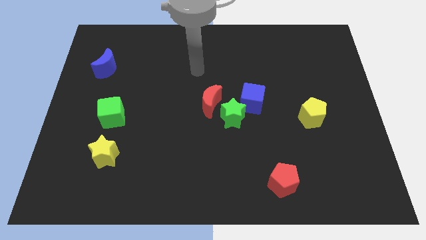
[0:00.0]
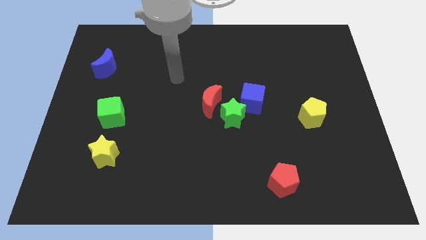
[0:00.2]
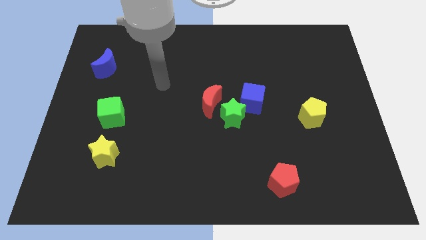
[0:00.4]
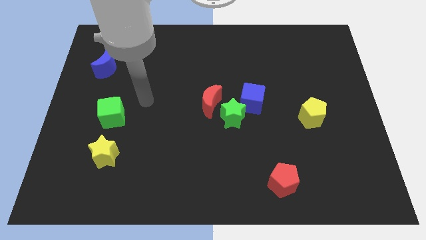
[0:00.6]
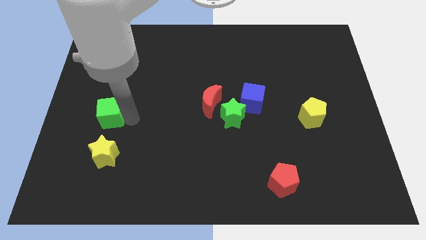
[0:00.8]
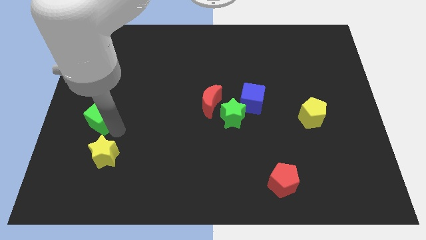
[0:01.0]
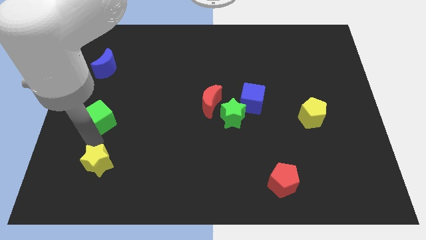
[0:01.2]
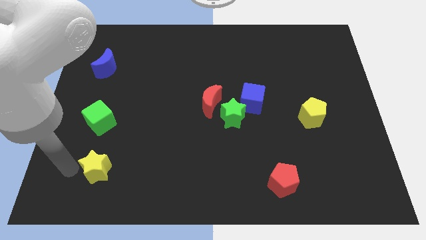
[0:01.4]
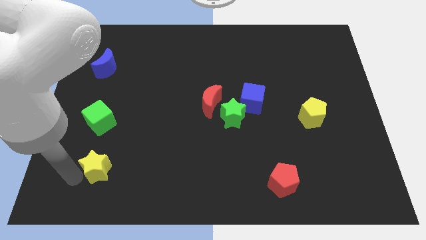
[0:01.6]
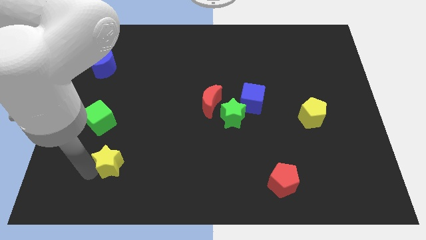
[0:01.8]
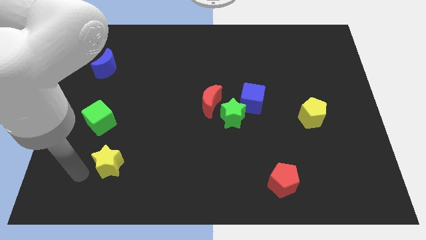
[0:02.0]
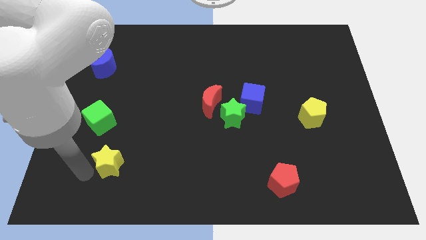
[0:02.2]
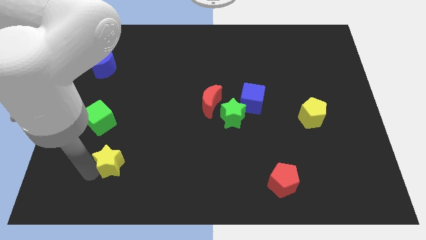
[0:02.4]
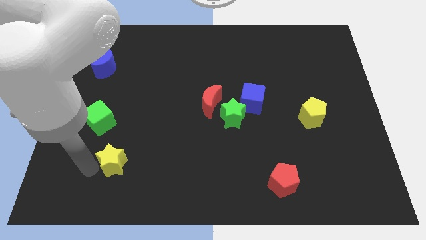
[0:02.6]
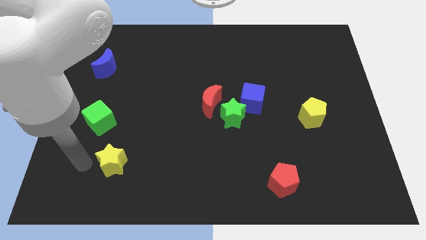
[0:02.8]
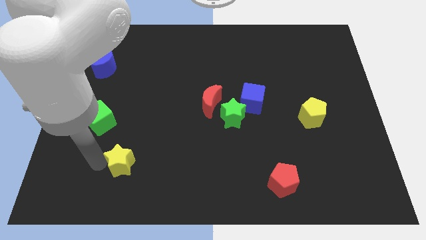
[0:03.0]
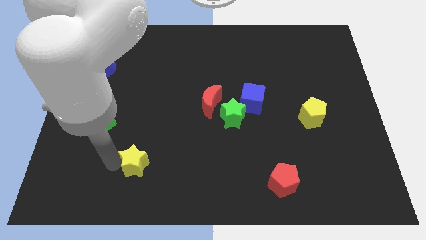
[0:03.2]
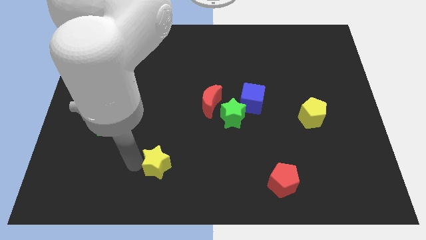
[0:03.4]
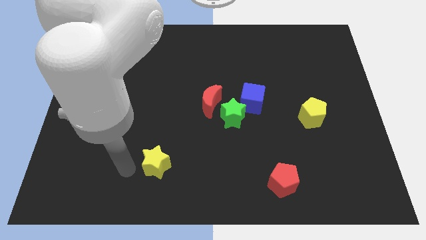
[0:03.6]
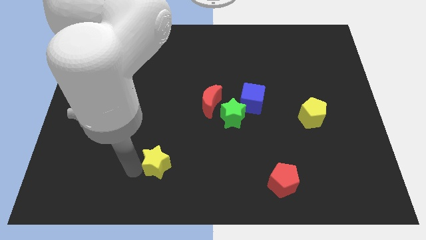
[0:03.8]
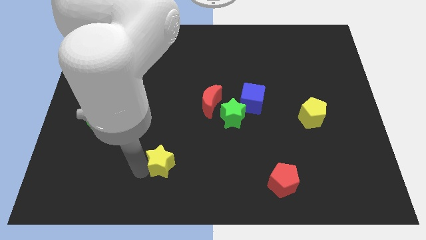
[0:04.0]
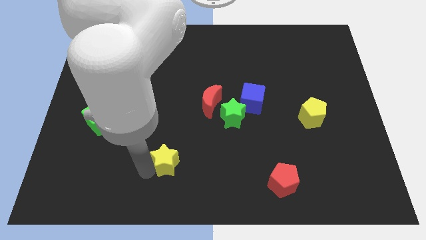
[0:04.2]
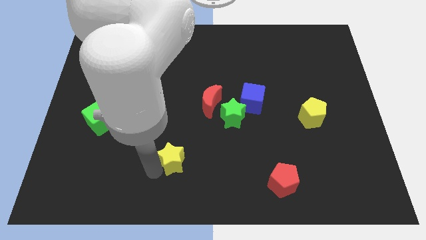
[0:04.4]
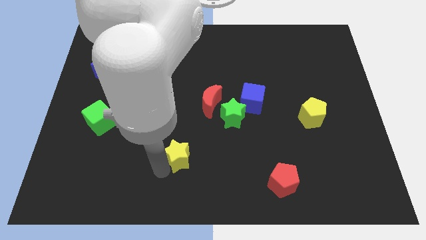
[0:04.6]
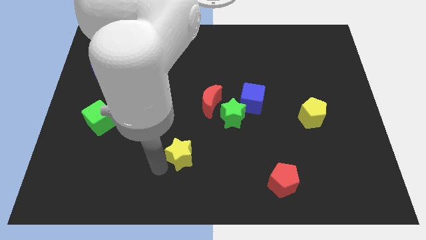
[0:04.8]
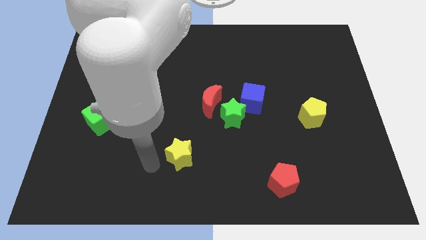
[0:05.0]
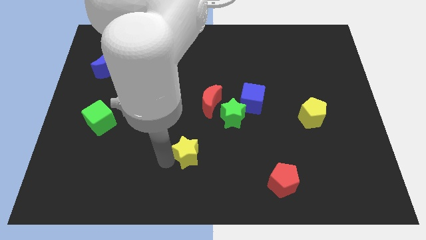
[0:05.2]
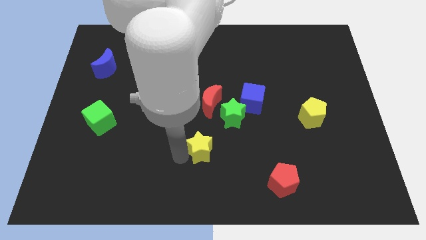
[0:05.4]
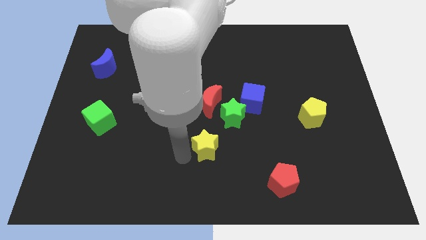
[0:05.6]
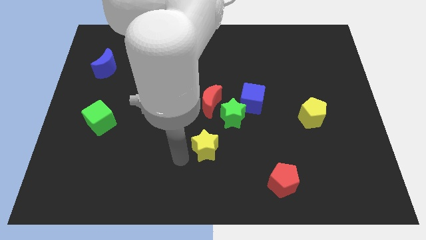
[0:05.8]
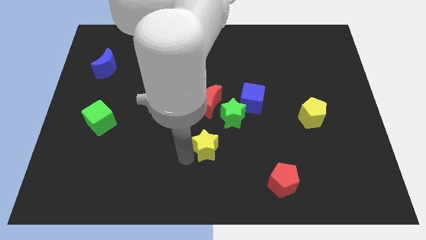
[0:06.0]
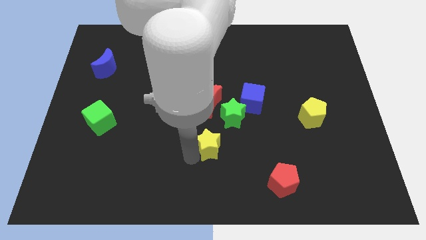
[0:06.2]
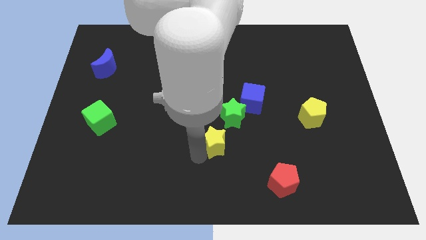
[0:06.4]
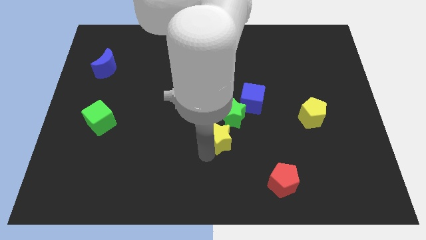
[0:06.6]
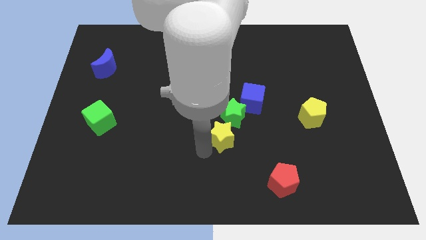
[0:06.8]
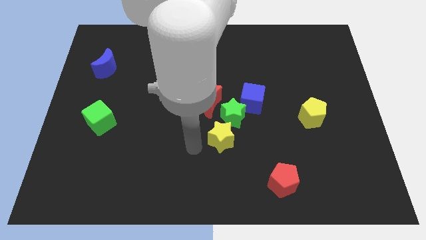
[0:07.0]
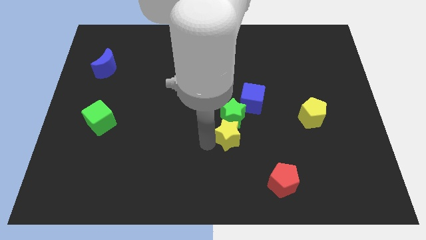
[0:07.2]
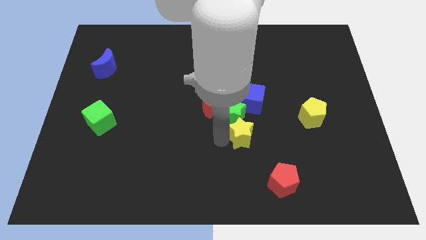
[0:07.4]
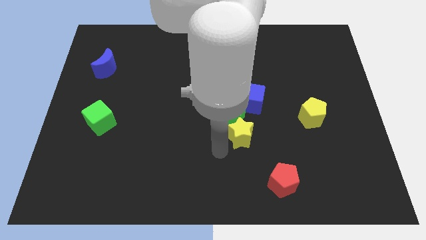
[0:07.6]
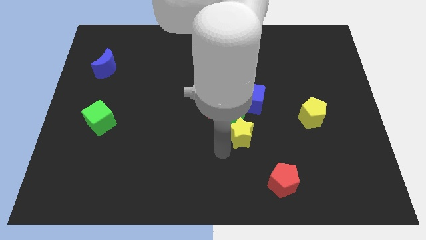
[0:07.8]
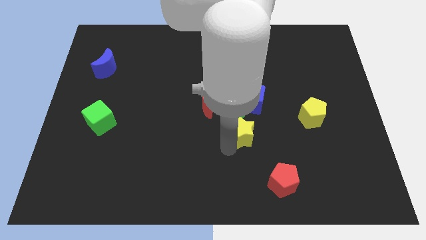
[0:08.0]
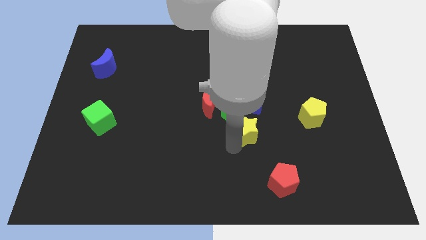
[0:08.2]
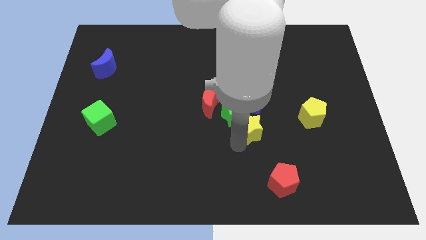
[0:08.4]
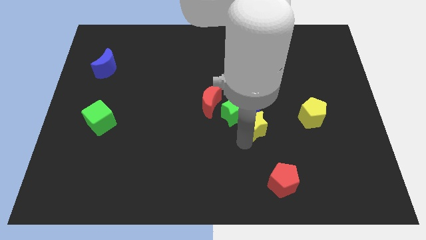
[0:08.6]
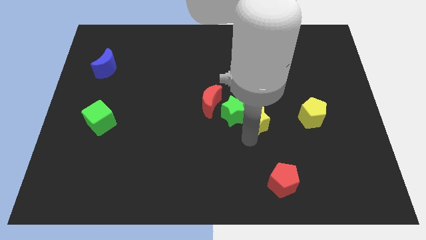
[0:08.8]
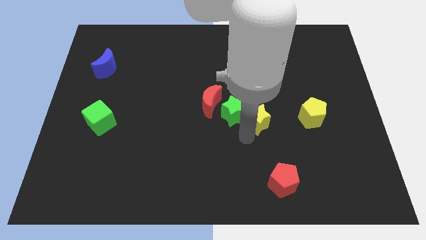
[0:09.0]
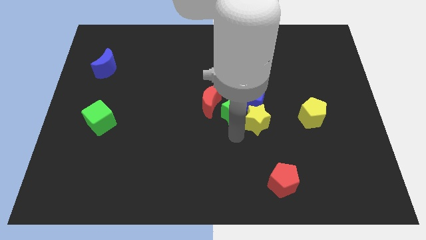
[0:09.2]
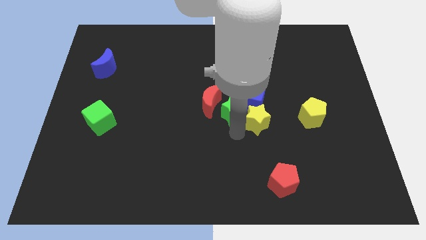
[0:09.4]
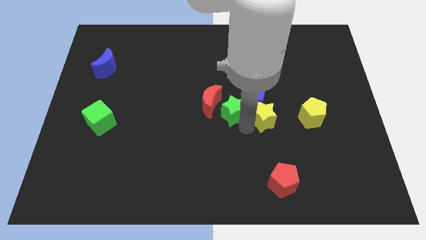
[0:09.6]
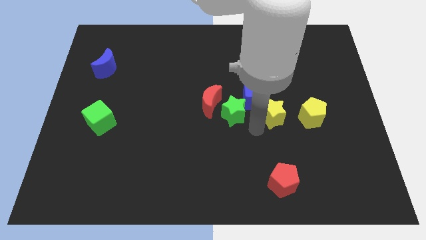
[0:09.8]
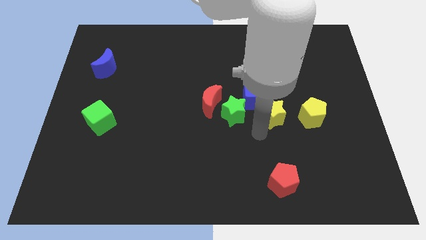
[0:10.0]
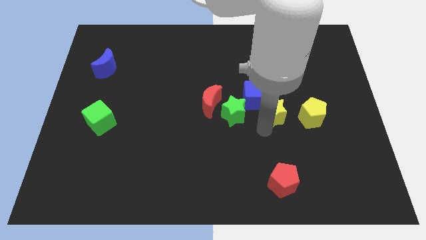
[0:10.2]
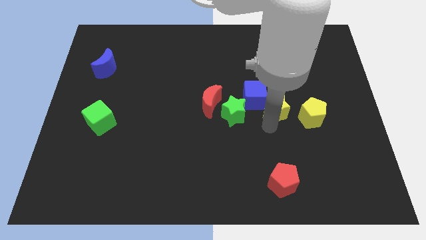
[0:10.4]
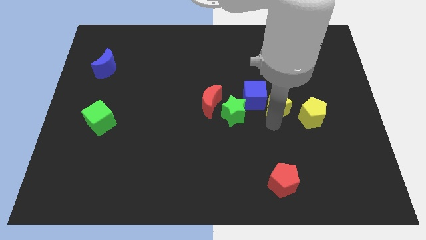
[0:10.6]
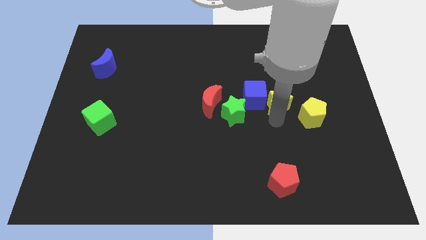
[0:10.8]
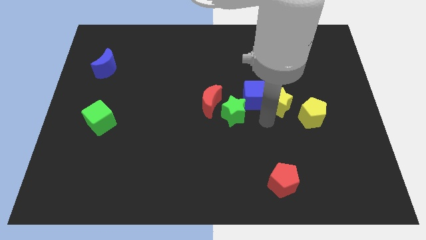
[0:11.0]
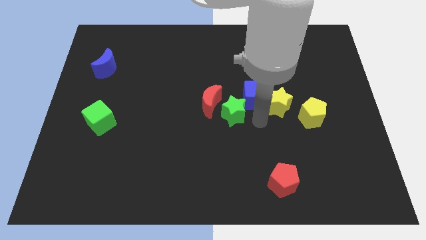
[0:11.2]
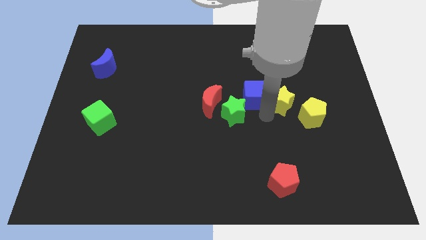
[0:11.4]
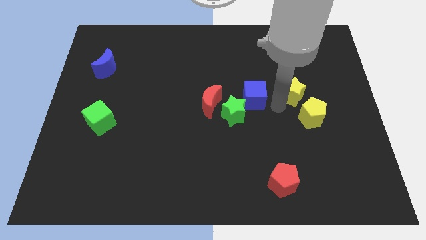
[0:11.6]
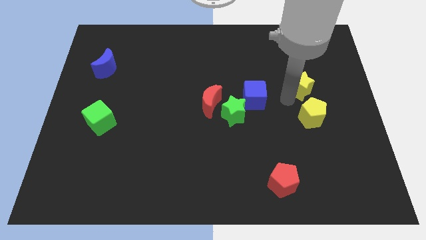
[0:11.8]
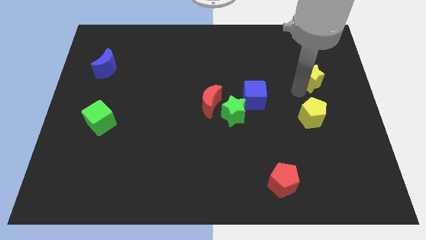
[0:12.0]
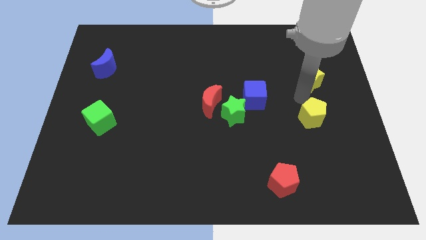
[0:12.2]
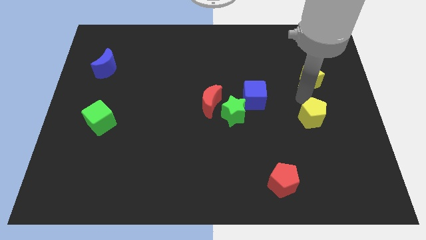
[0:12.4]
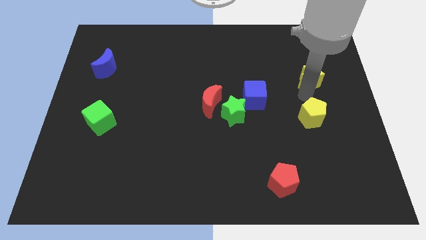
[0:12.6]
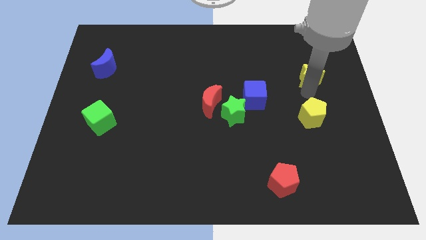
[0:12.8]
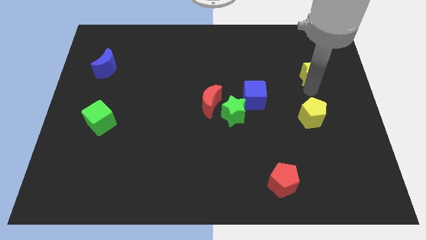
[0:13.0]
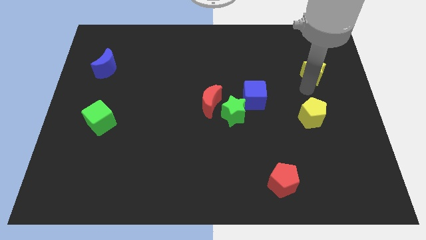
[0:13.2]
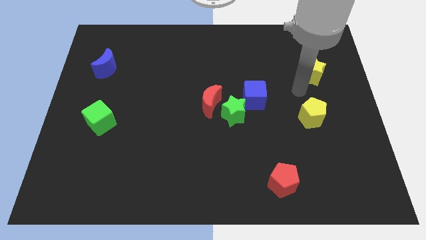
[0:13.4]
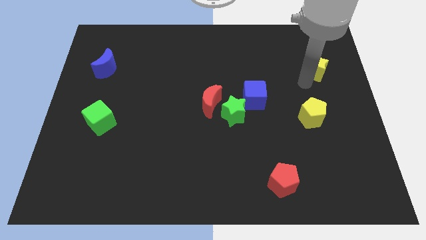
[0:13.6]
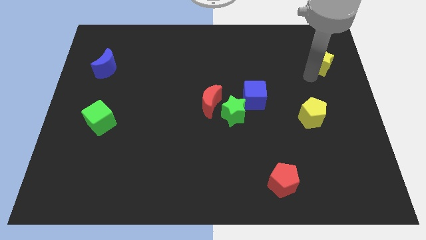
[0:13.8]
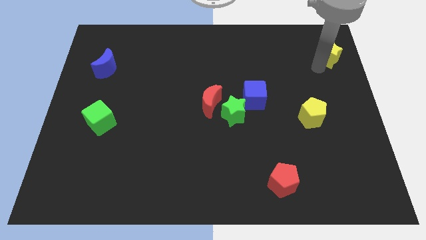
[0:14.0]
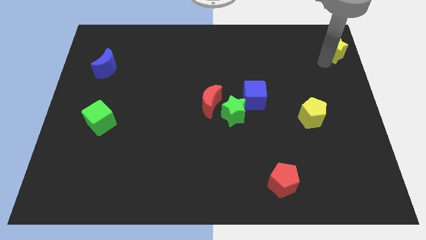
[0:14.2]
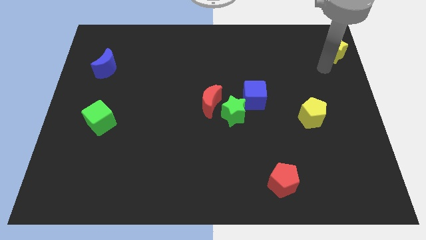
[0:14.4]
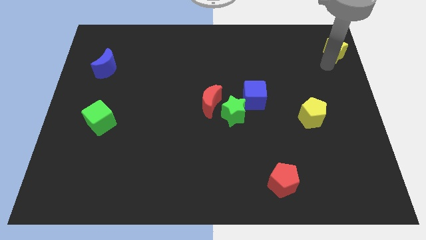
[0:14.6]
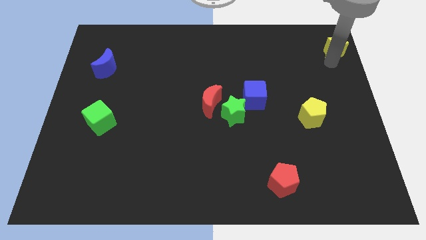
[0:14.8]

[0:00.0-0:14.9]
put the yellow star to the top right of the board
